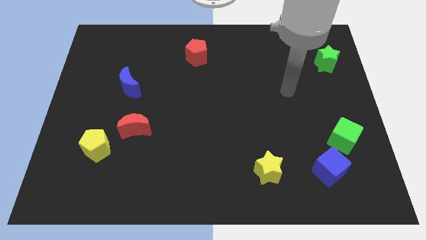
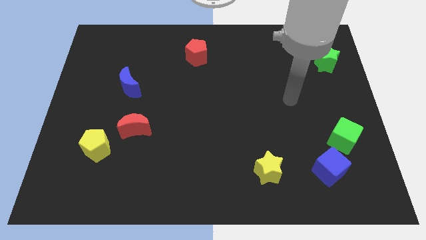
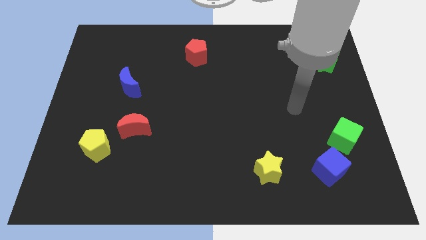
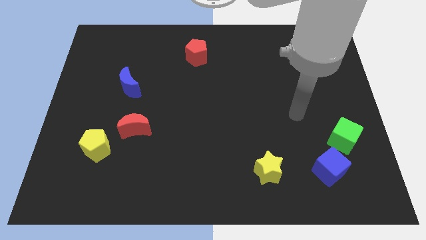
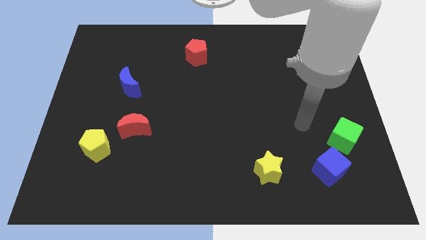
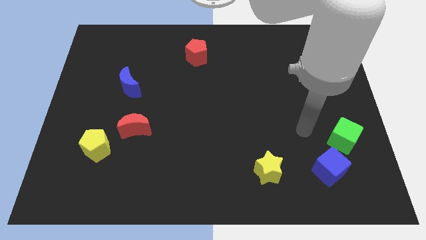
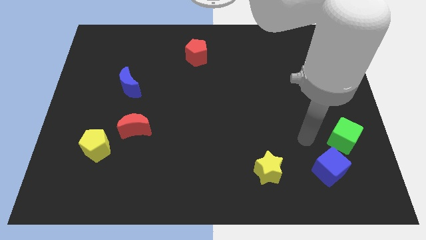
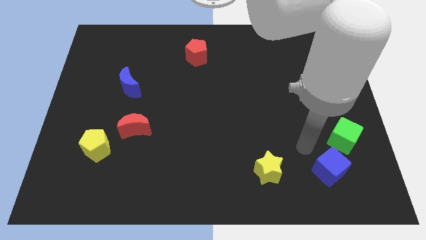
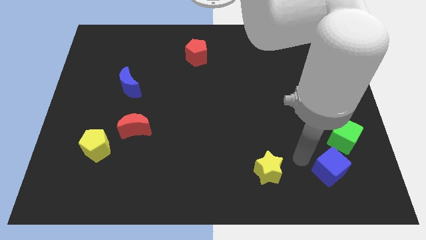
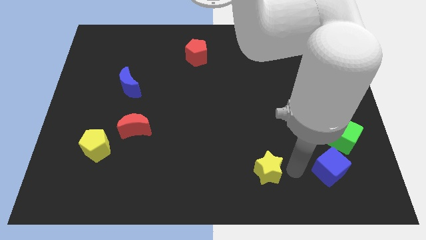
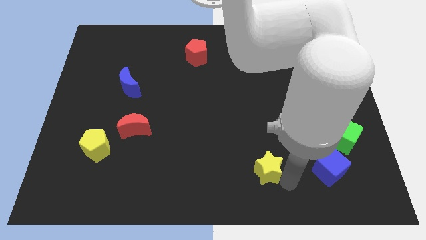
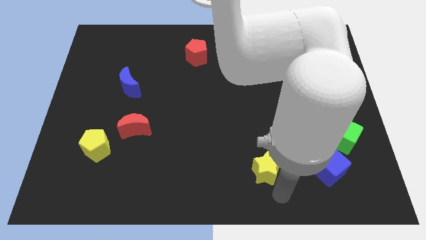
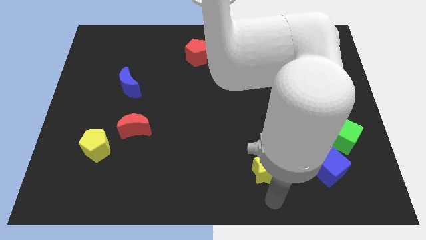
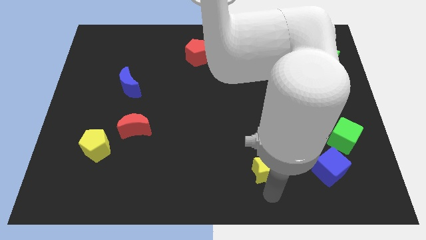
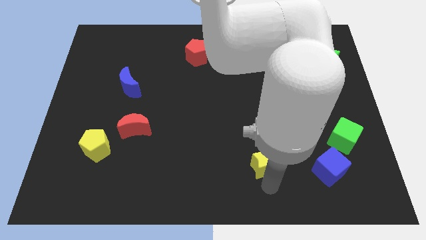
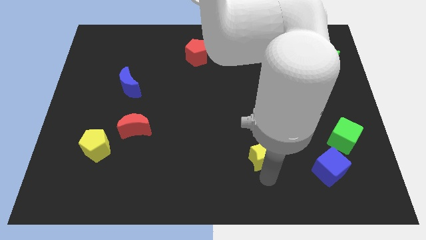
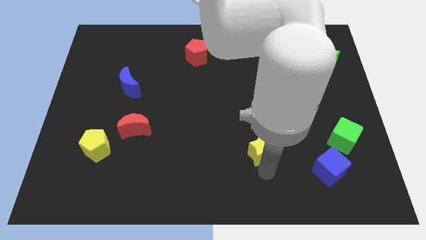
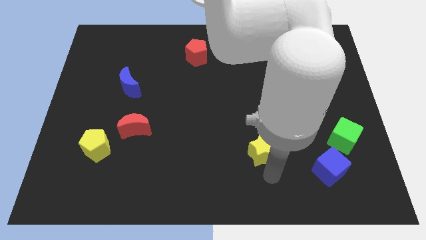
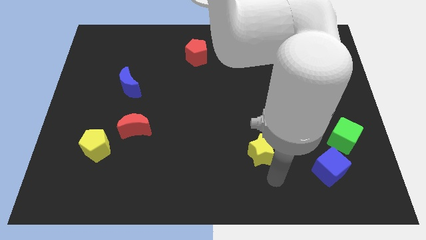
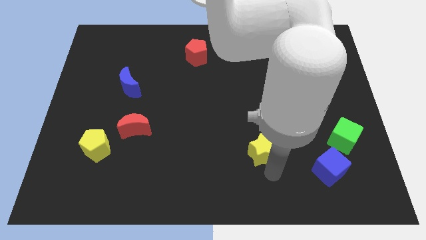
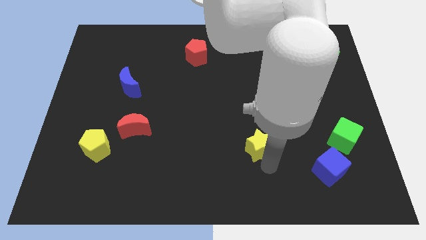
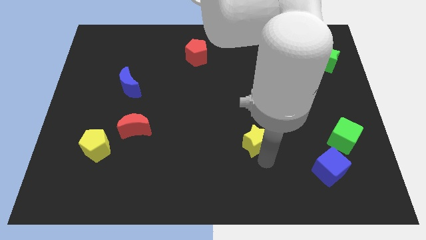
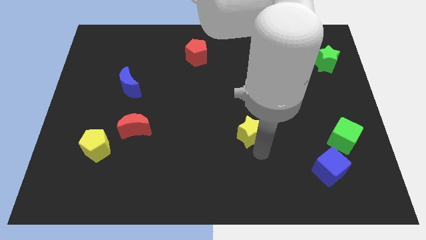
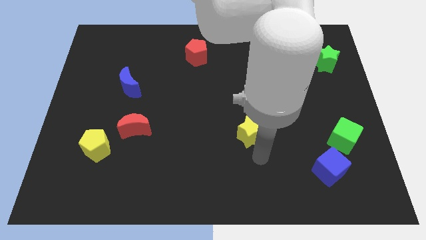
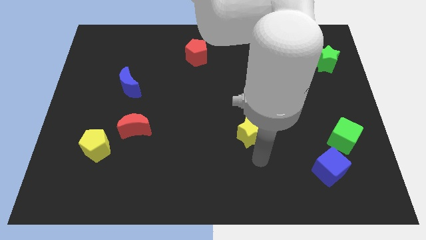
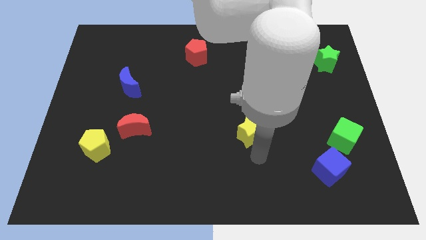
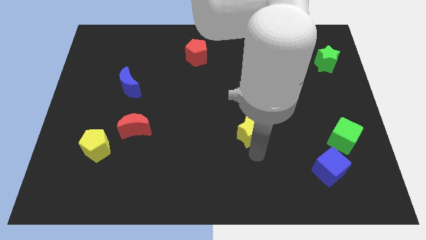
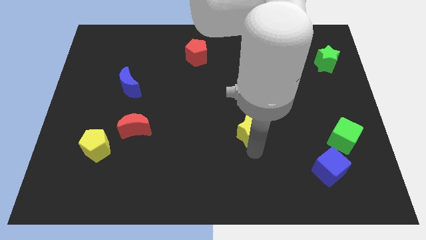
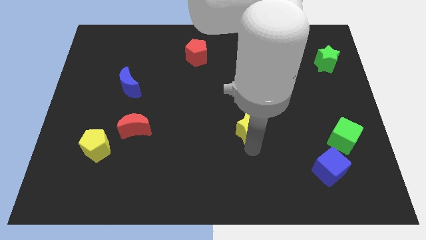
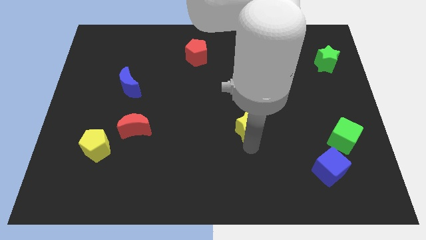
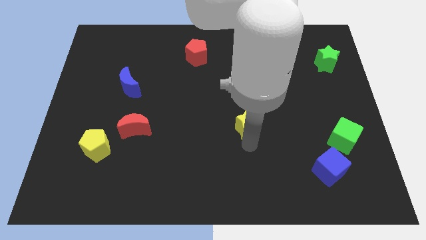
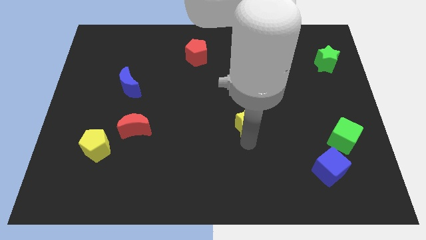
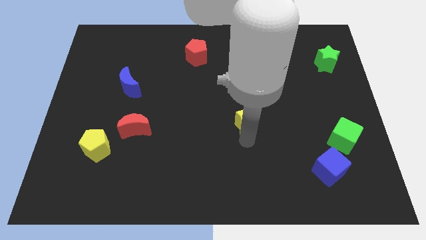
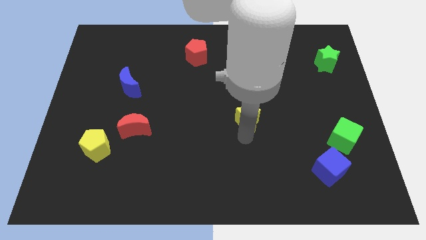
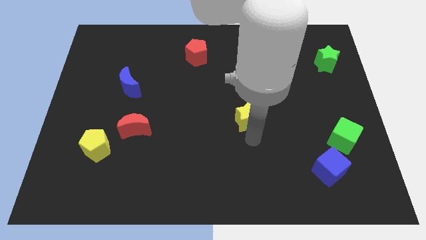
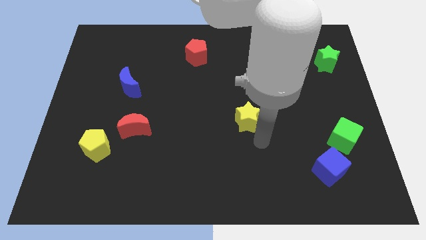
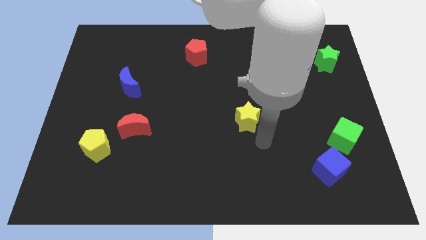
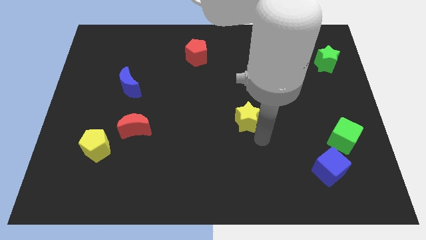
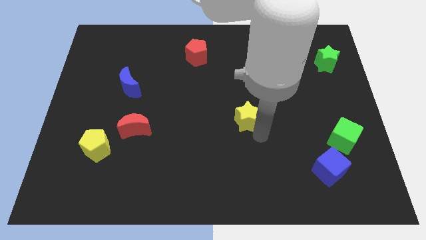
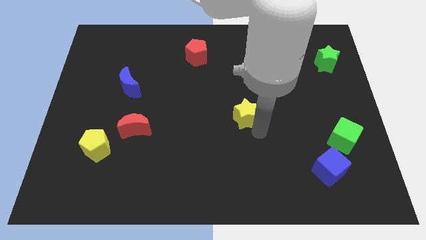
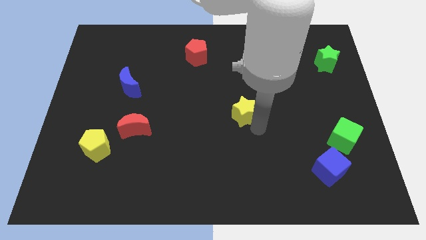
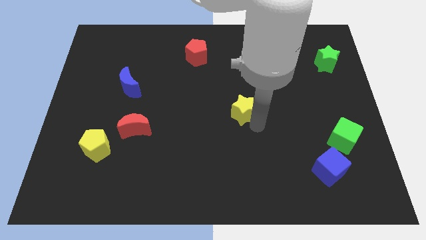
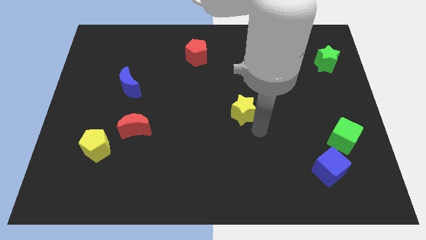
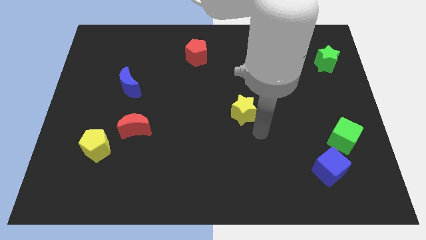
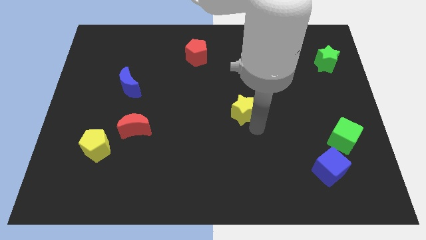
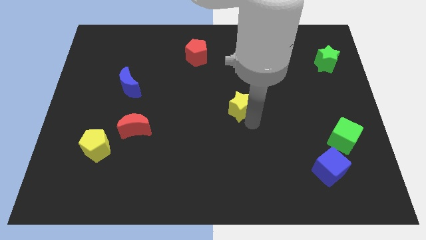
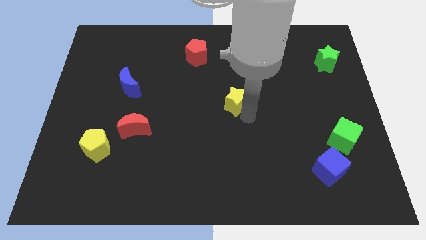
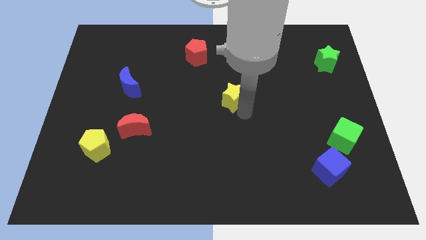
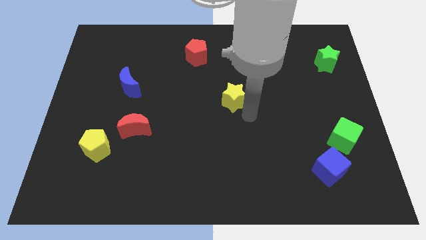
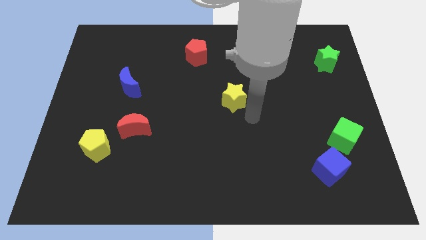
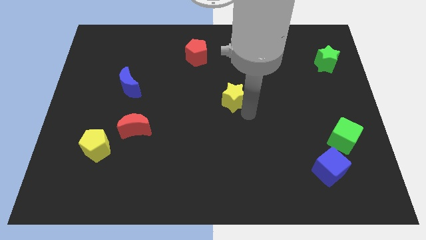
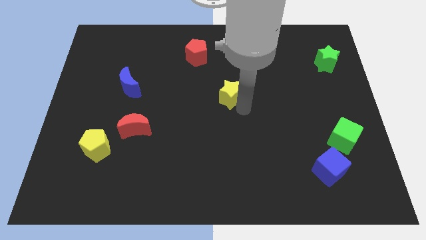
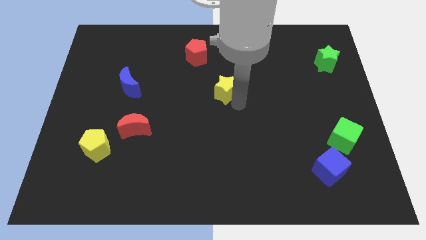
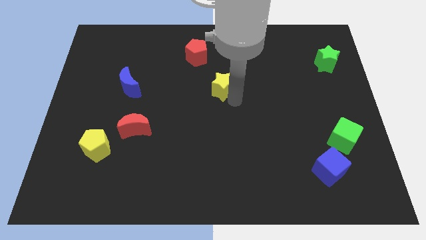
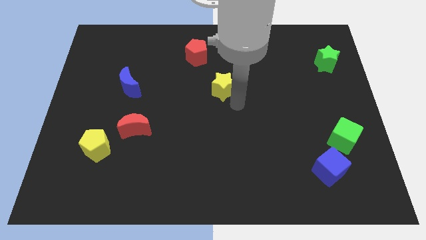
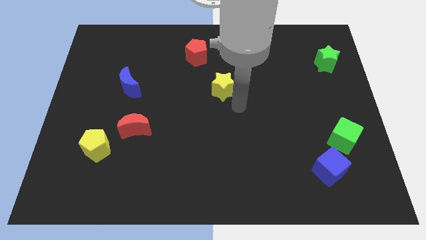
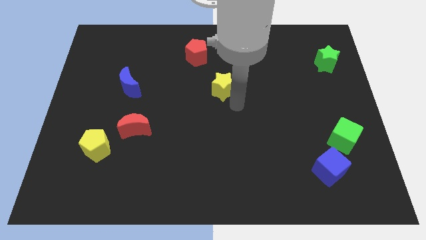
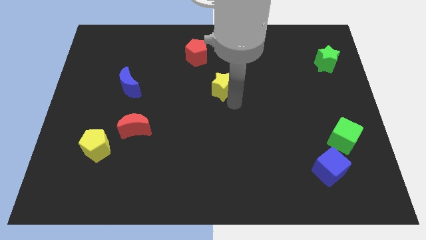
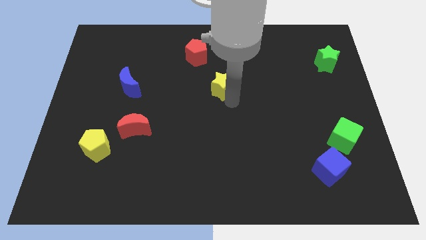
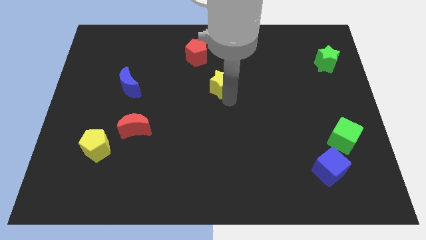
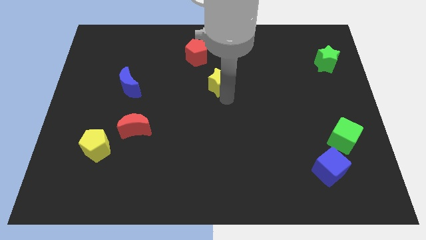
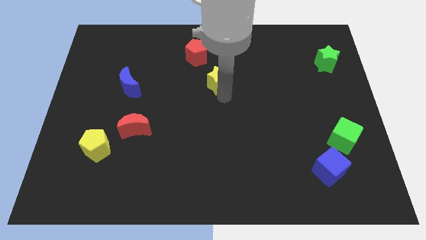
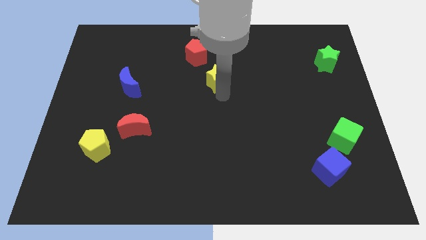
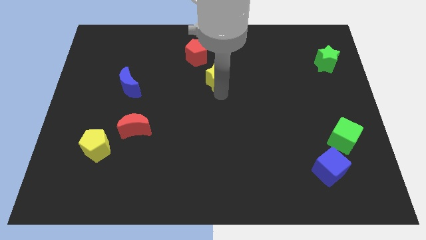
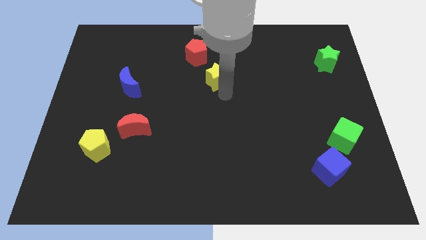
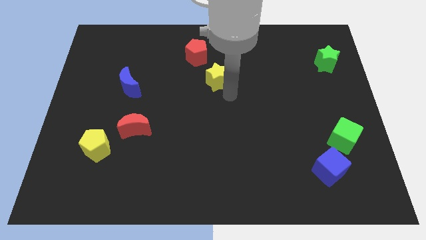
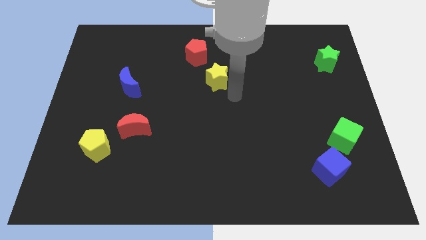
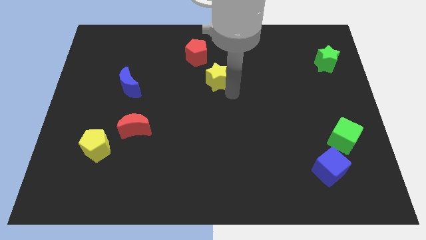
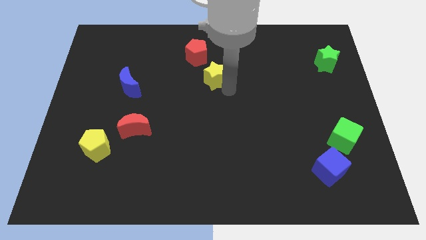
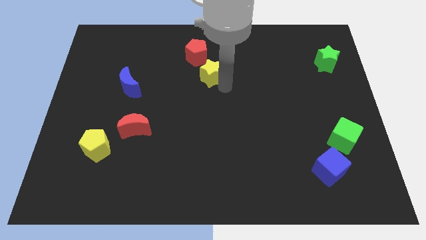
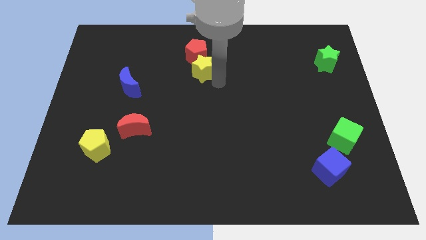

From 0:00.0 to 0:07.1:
push the yellow star to the red pentagon

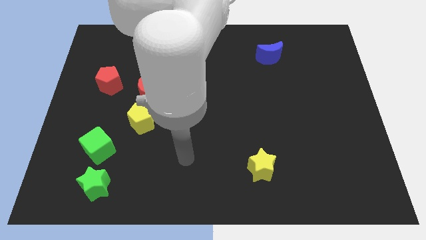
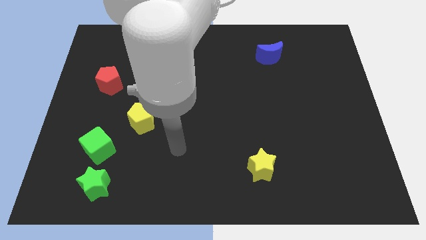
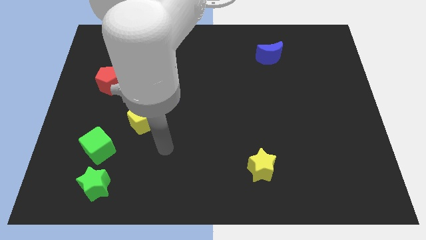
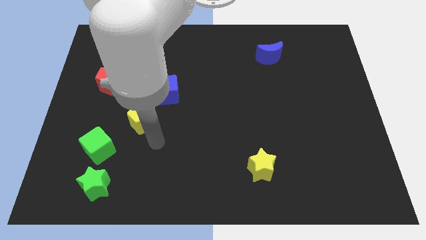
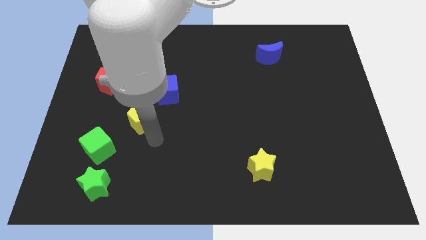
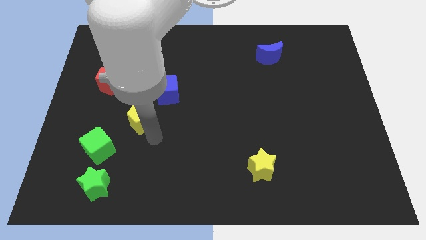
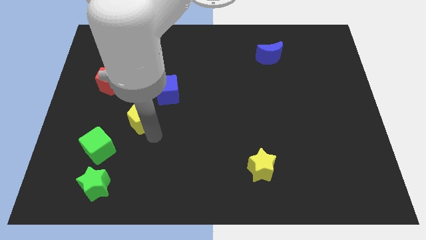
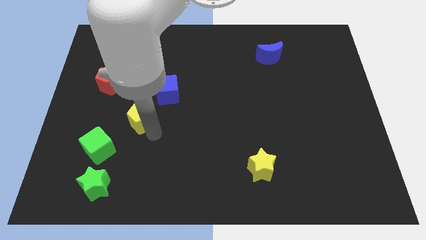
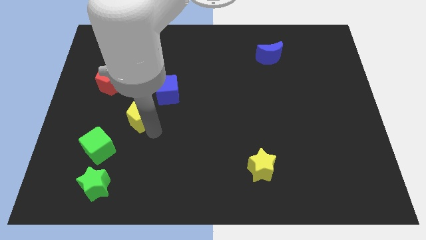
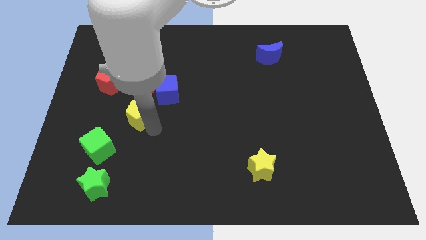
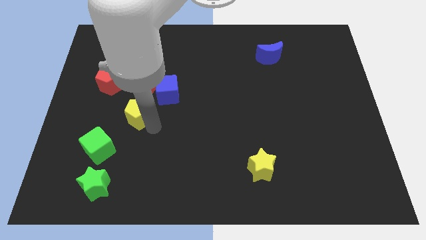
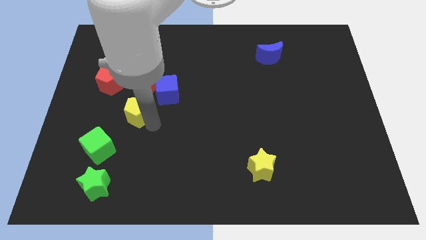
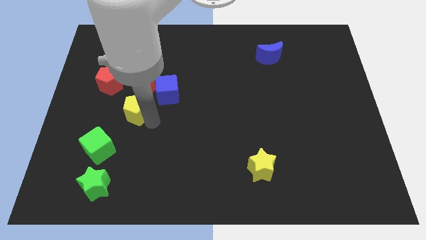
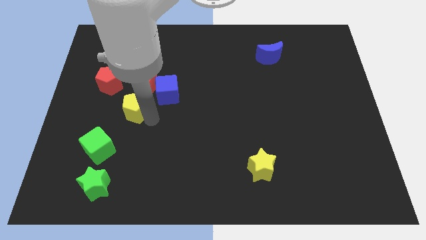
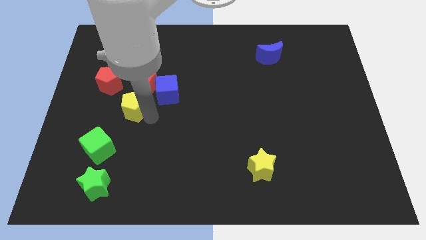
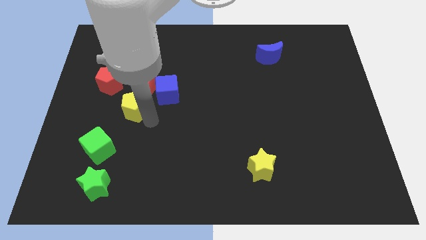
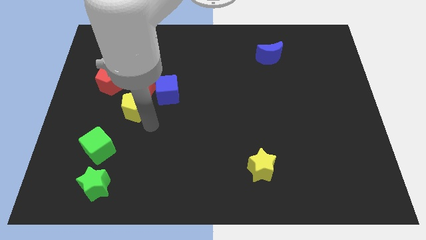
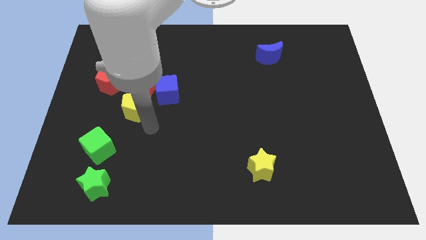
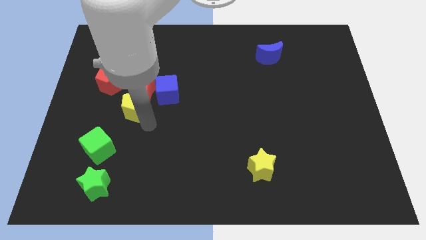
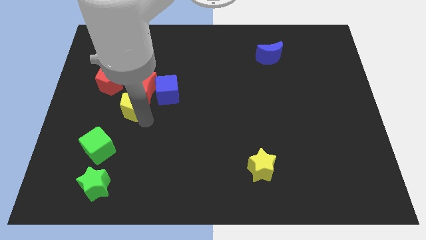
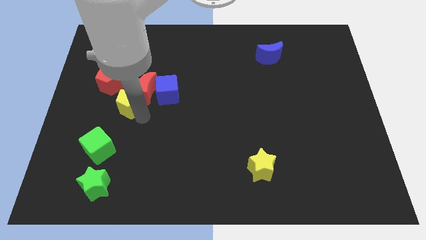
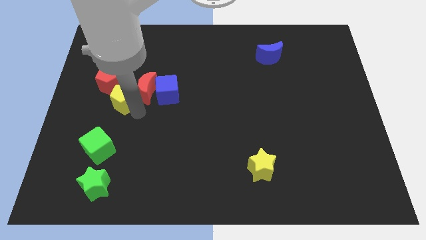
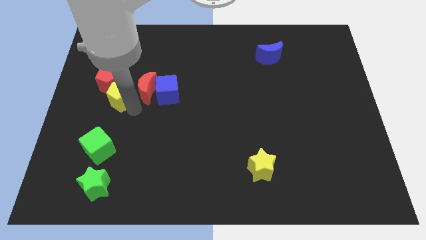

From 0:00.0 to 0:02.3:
move the yellow pentagon close to the red pentagon
